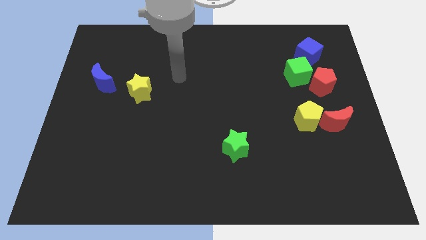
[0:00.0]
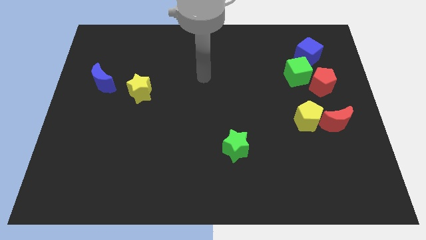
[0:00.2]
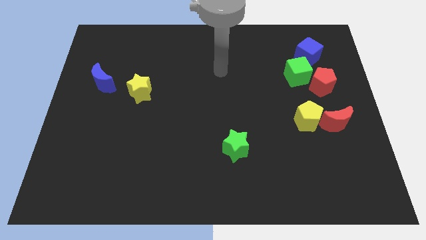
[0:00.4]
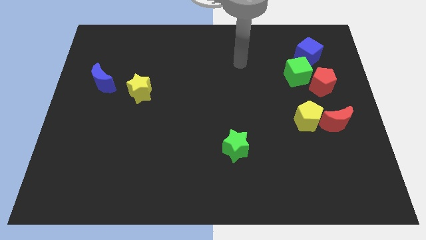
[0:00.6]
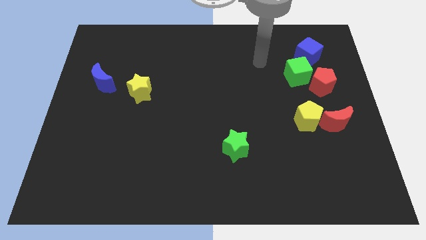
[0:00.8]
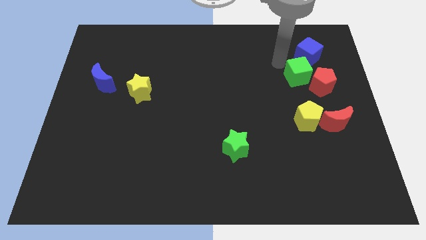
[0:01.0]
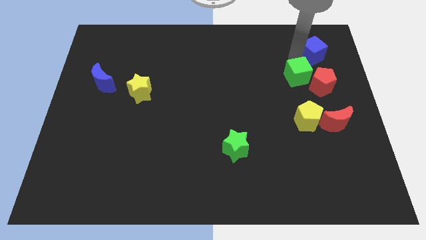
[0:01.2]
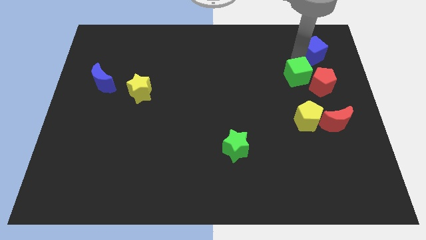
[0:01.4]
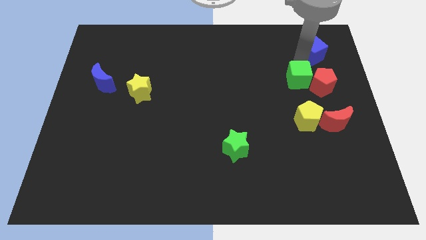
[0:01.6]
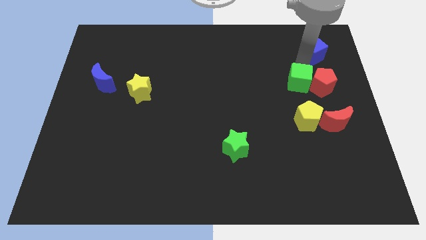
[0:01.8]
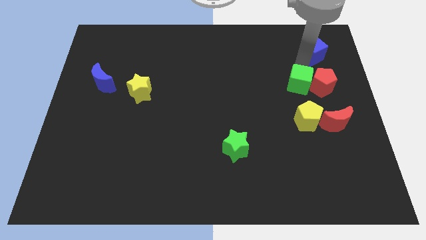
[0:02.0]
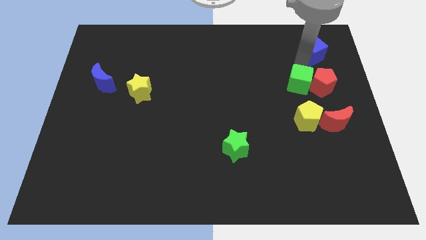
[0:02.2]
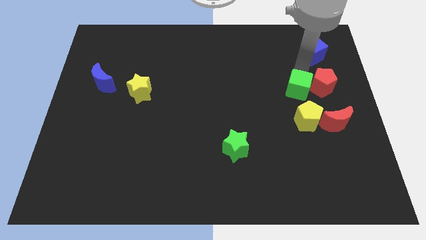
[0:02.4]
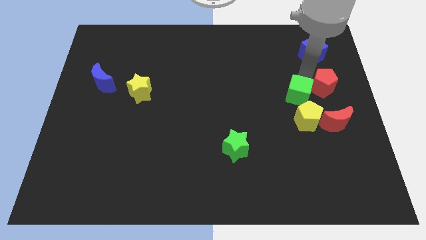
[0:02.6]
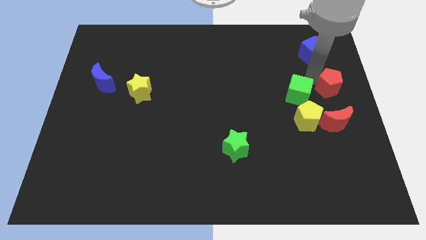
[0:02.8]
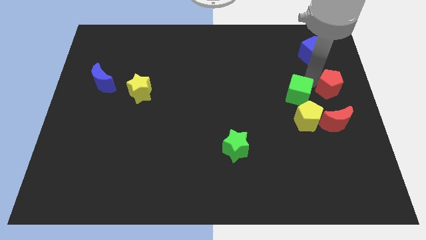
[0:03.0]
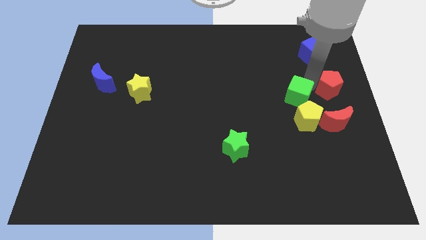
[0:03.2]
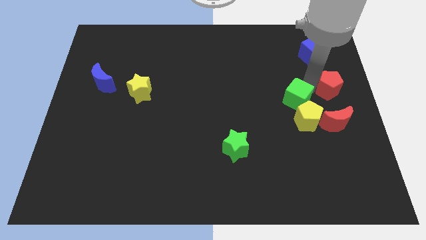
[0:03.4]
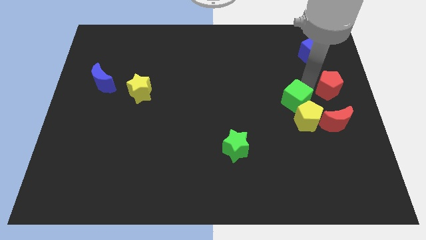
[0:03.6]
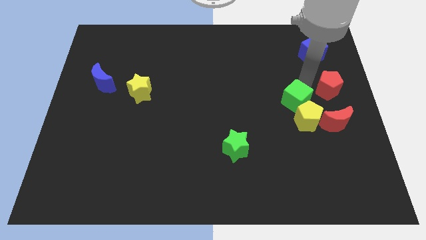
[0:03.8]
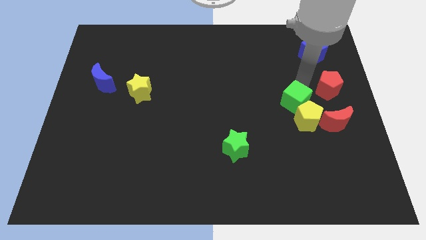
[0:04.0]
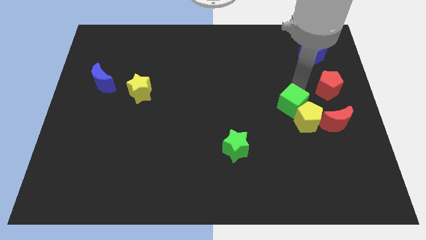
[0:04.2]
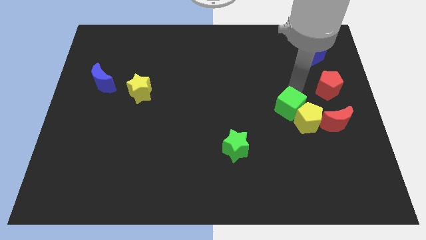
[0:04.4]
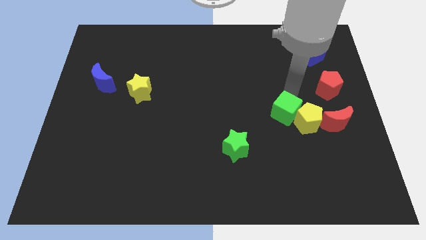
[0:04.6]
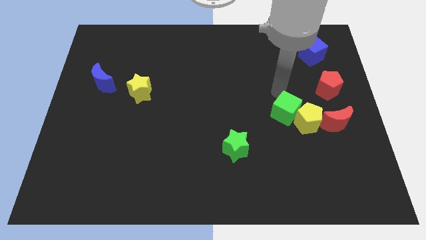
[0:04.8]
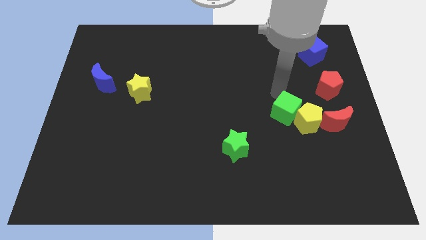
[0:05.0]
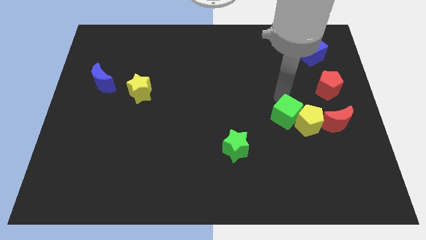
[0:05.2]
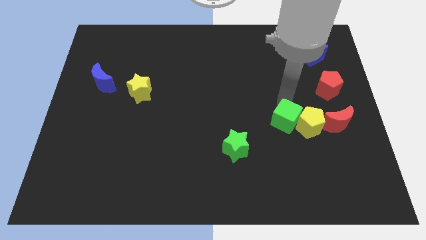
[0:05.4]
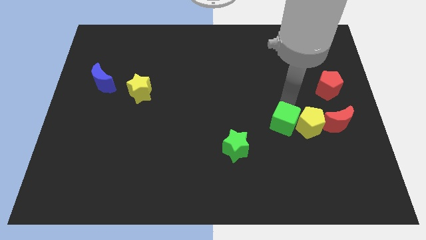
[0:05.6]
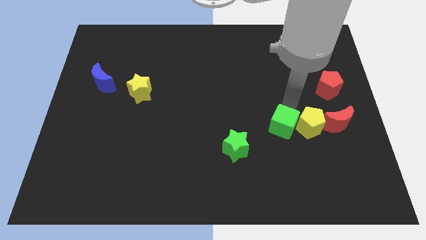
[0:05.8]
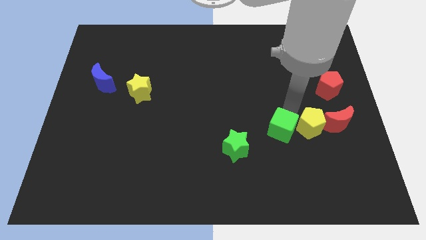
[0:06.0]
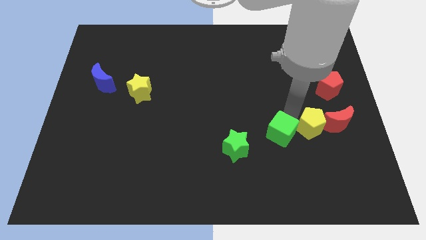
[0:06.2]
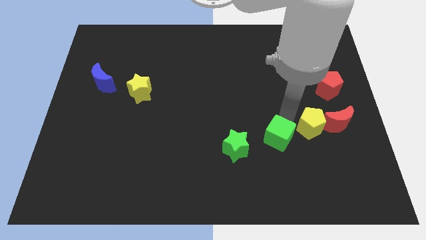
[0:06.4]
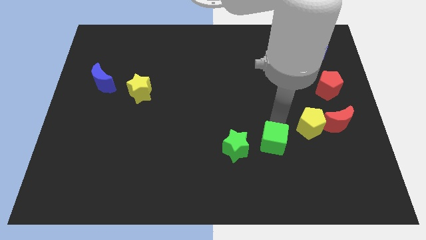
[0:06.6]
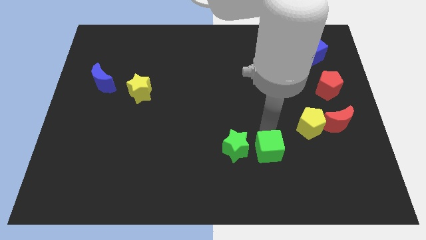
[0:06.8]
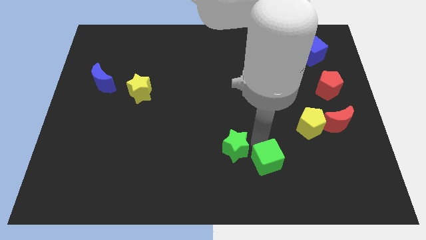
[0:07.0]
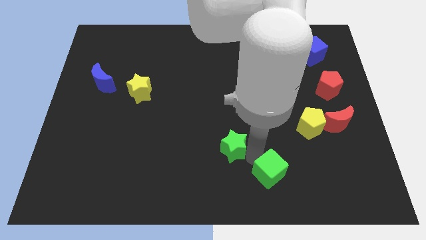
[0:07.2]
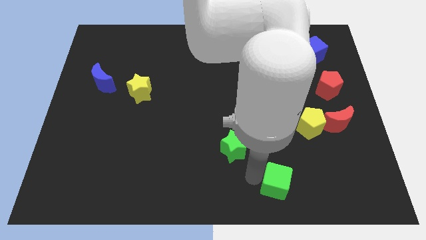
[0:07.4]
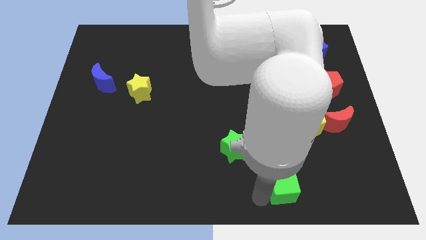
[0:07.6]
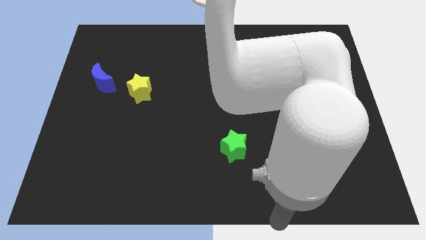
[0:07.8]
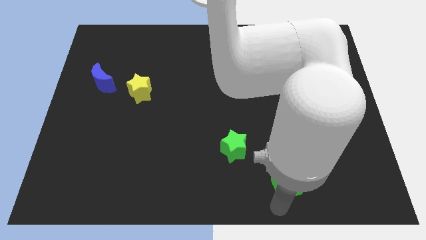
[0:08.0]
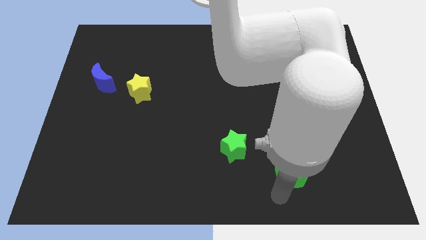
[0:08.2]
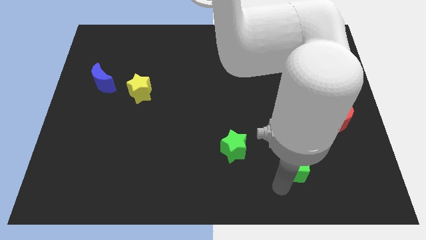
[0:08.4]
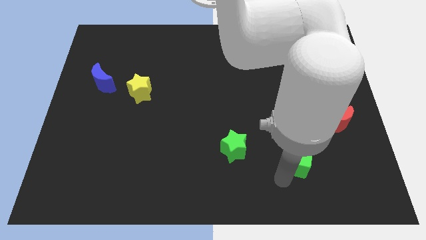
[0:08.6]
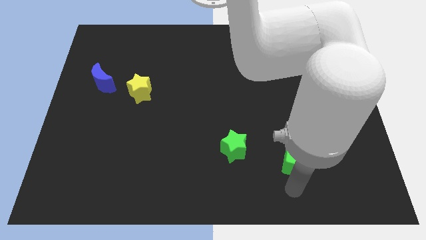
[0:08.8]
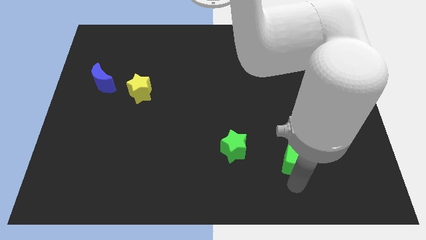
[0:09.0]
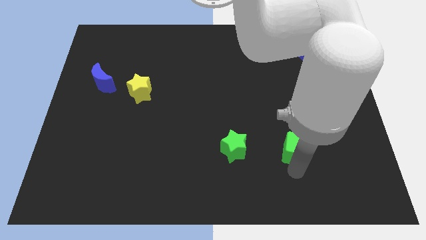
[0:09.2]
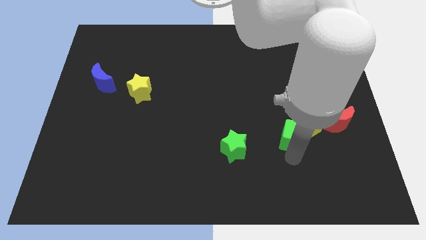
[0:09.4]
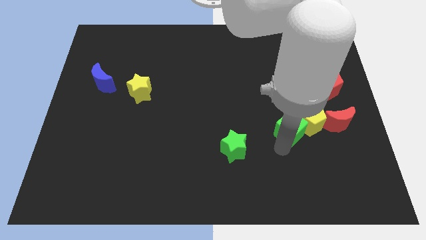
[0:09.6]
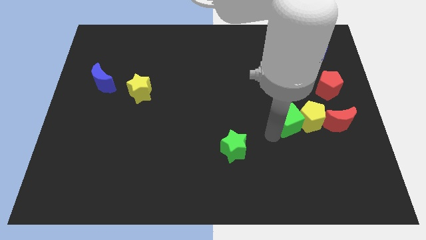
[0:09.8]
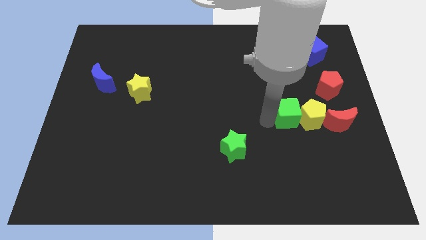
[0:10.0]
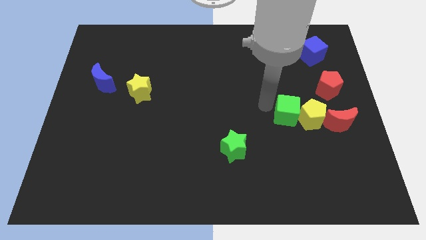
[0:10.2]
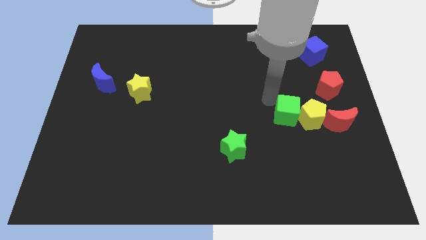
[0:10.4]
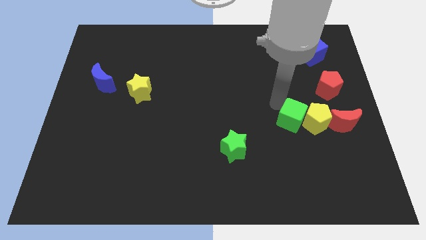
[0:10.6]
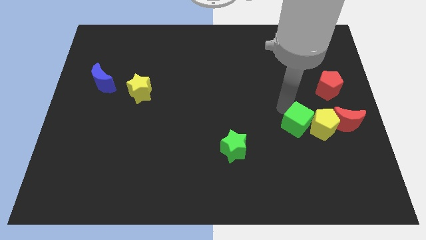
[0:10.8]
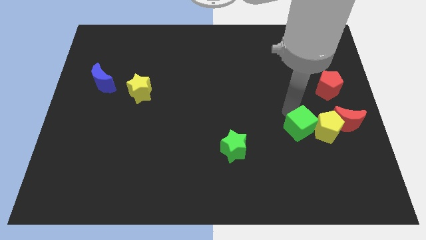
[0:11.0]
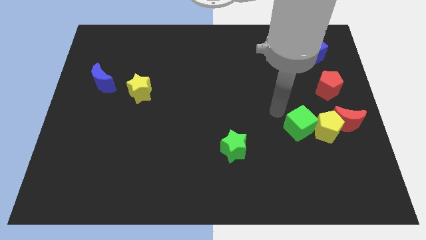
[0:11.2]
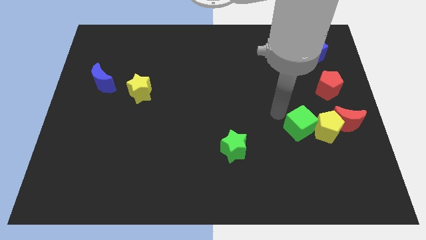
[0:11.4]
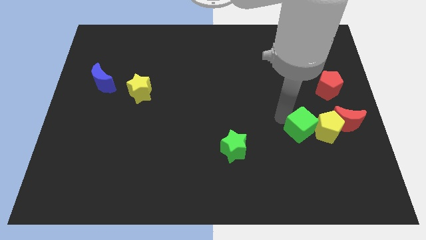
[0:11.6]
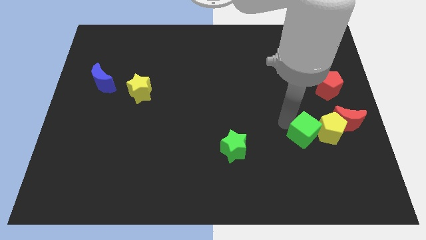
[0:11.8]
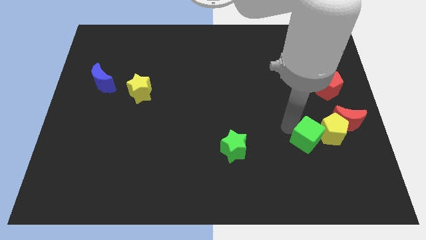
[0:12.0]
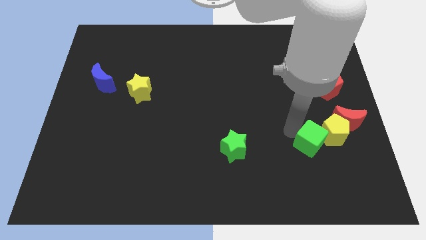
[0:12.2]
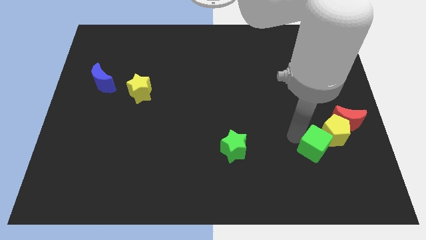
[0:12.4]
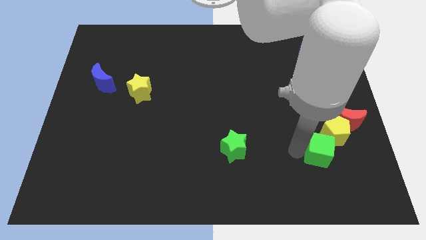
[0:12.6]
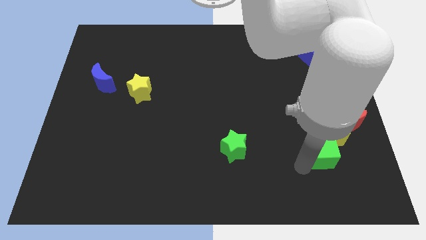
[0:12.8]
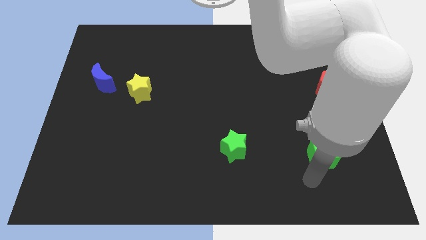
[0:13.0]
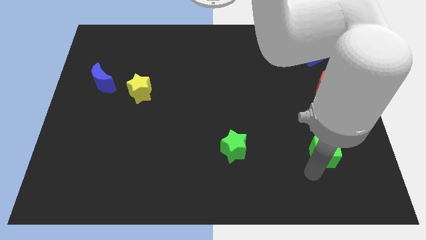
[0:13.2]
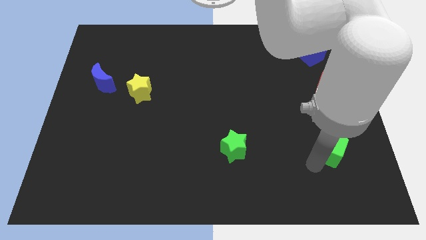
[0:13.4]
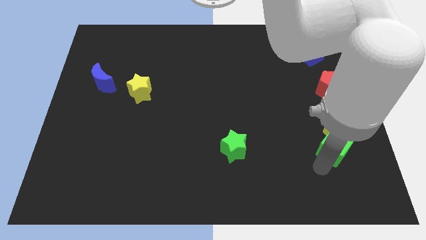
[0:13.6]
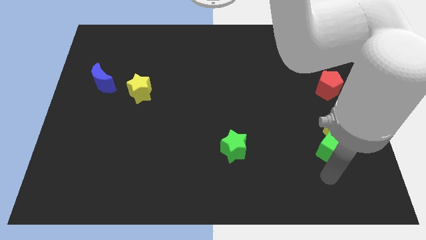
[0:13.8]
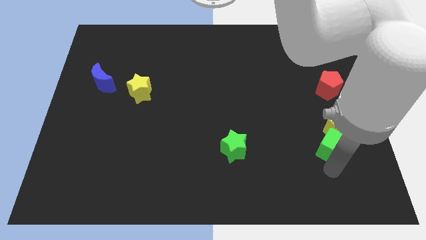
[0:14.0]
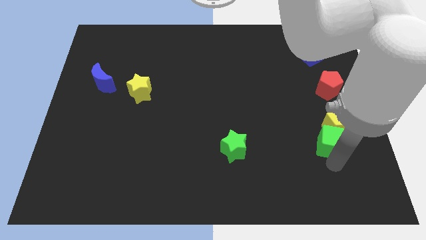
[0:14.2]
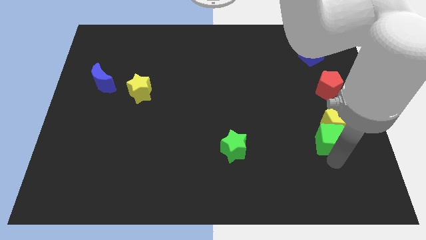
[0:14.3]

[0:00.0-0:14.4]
slide the green cube below the red pentagon
